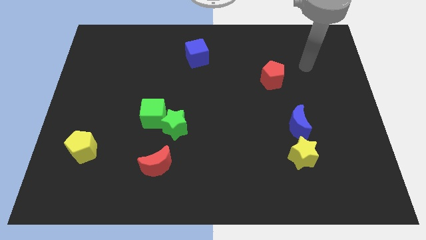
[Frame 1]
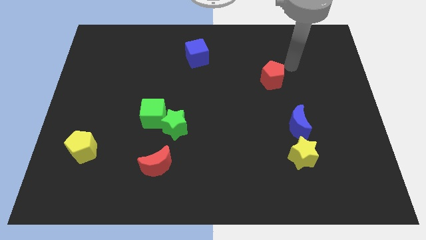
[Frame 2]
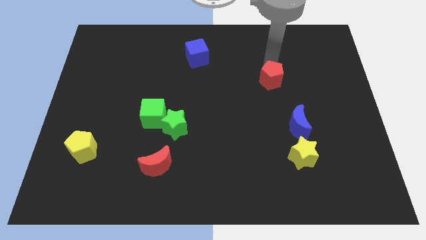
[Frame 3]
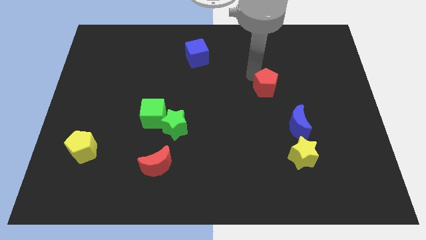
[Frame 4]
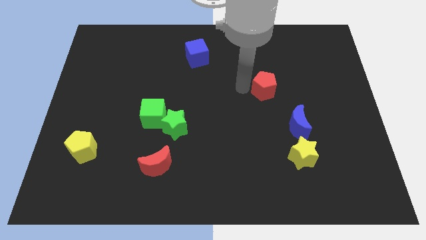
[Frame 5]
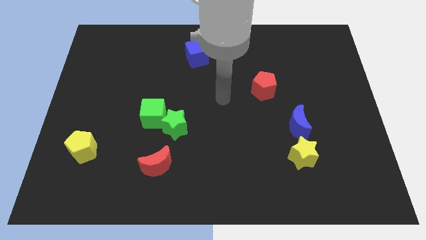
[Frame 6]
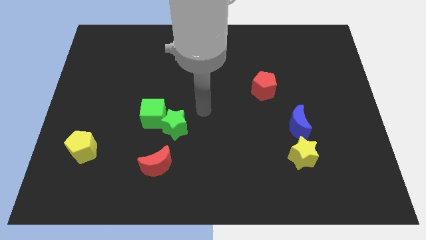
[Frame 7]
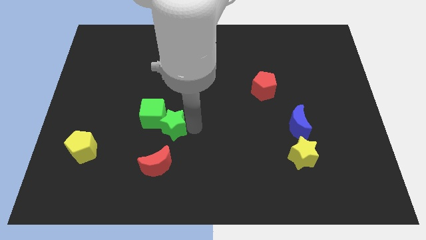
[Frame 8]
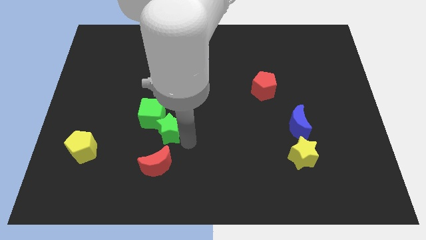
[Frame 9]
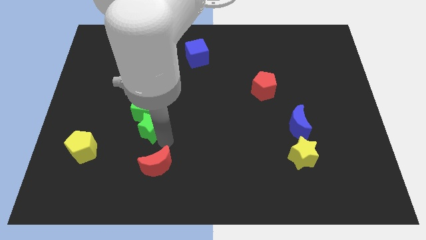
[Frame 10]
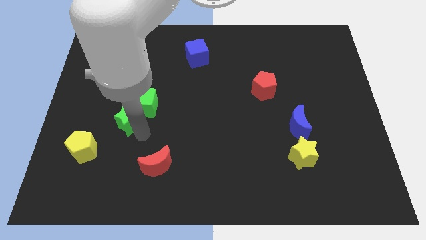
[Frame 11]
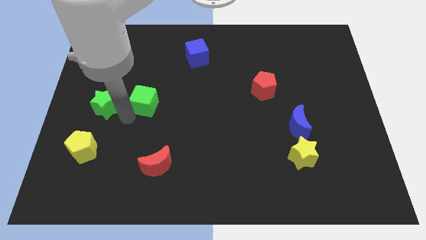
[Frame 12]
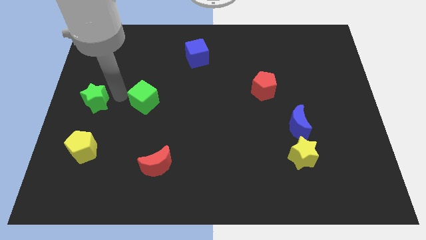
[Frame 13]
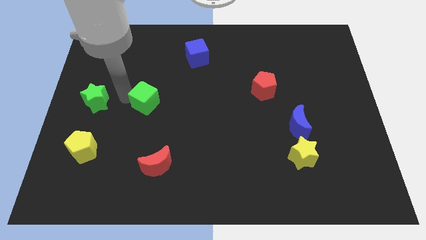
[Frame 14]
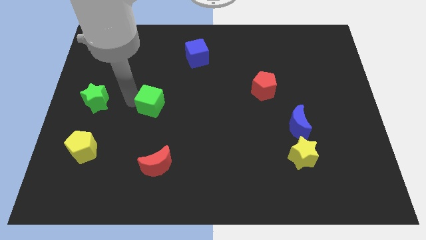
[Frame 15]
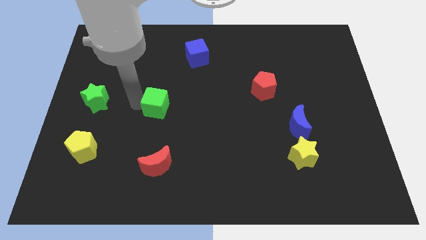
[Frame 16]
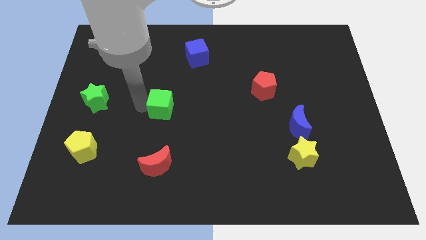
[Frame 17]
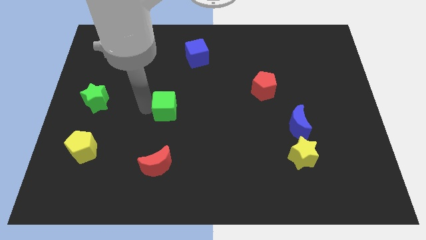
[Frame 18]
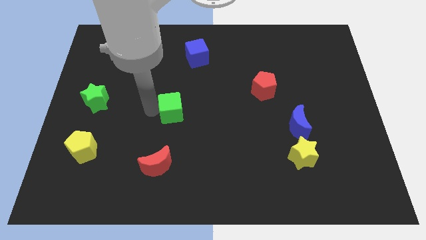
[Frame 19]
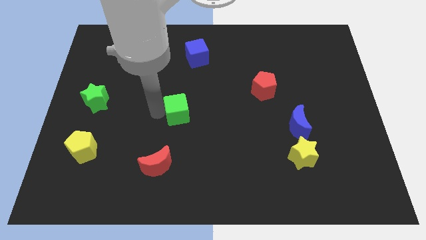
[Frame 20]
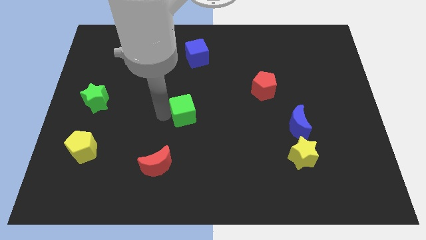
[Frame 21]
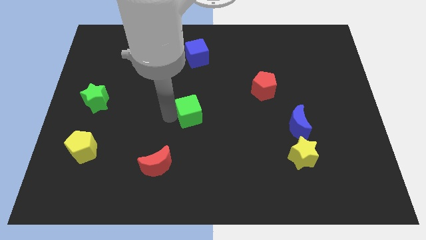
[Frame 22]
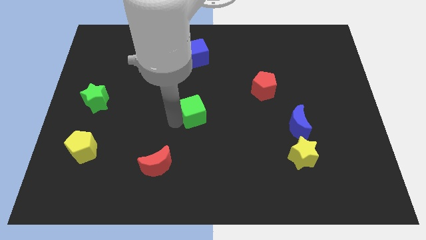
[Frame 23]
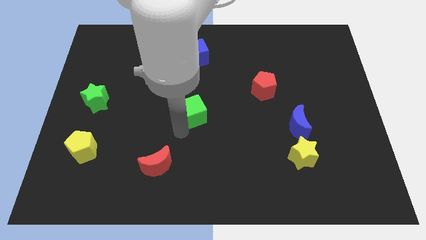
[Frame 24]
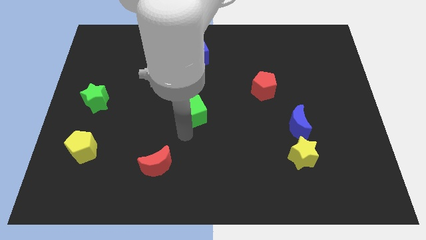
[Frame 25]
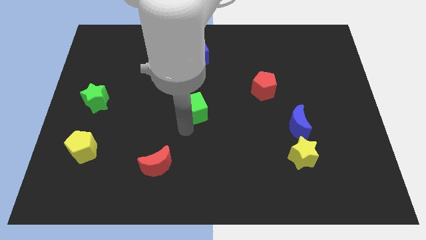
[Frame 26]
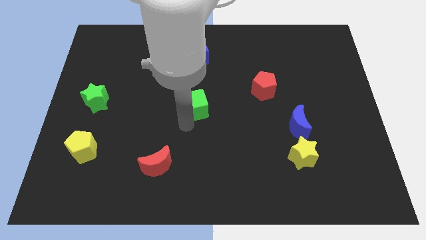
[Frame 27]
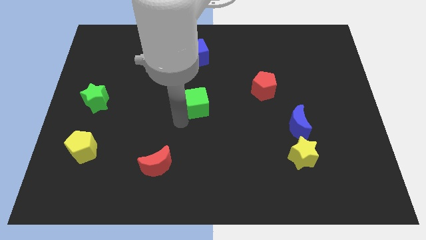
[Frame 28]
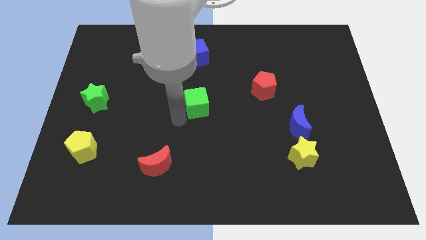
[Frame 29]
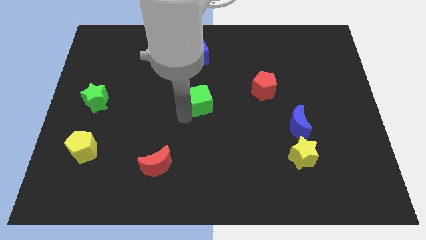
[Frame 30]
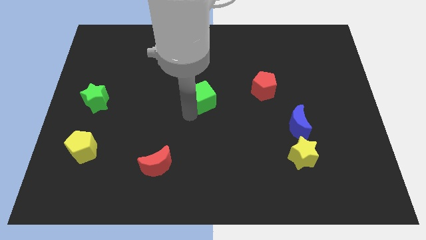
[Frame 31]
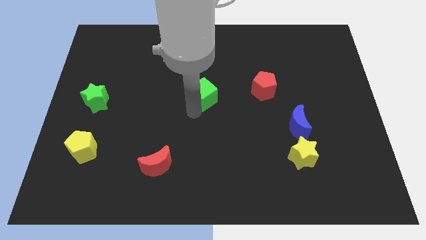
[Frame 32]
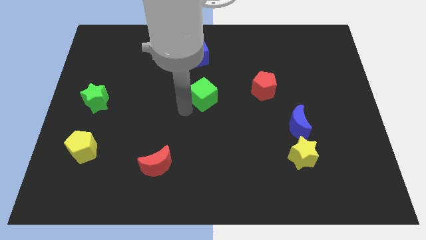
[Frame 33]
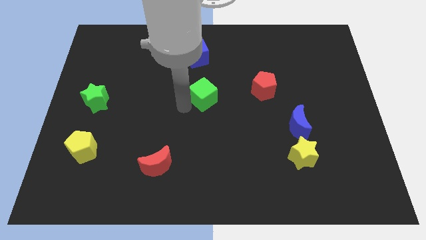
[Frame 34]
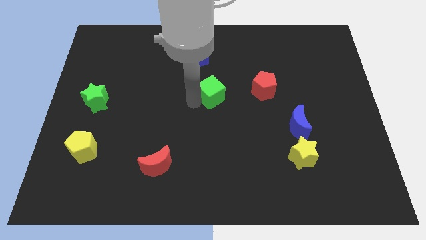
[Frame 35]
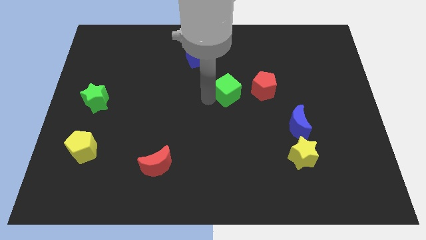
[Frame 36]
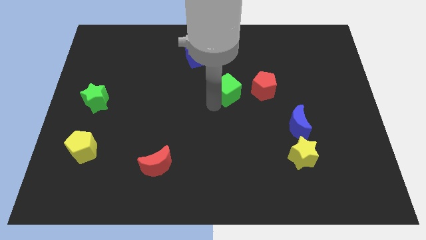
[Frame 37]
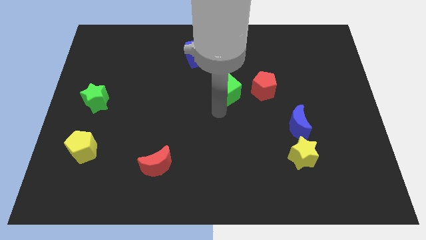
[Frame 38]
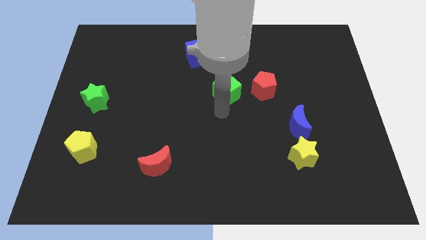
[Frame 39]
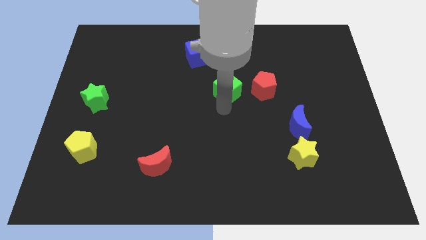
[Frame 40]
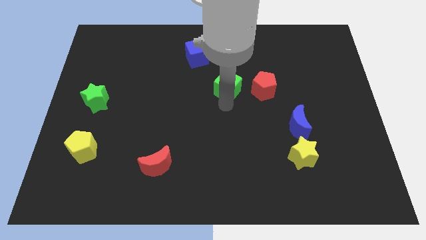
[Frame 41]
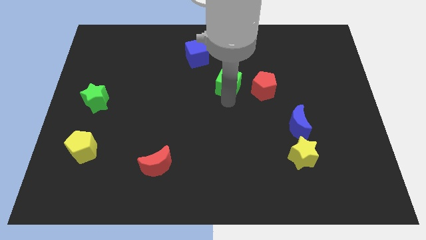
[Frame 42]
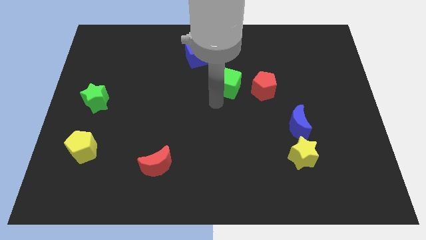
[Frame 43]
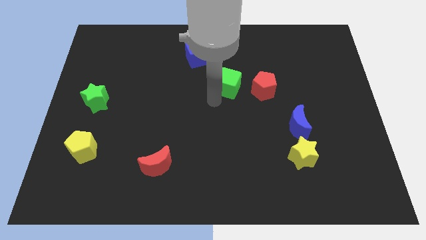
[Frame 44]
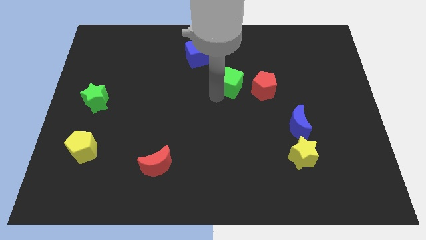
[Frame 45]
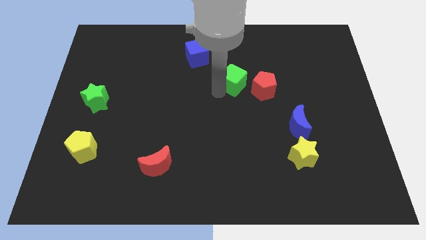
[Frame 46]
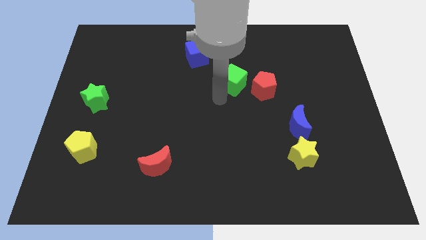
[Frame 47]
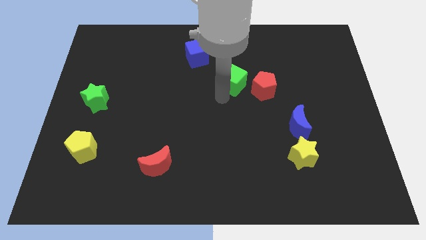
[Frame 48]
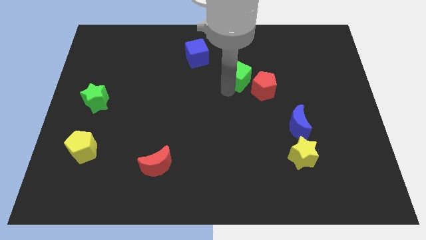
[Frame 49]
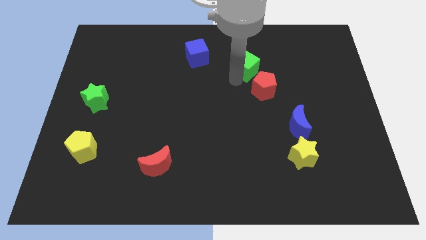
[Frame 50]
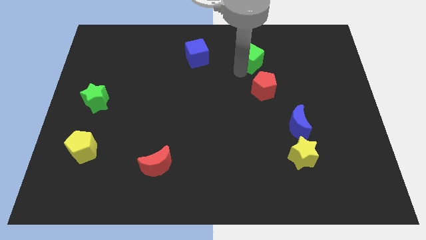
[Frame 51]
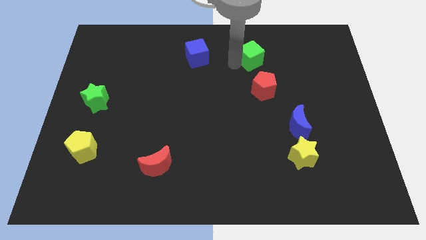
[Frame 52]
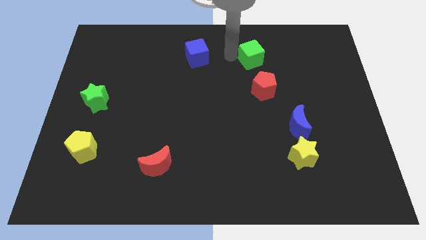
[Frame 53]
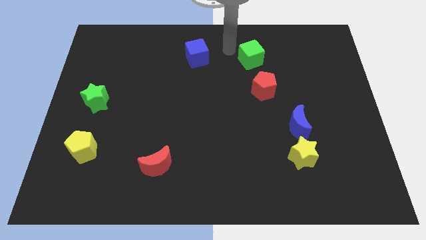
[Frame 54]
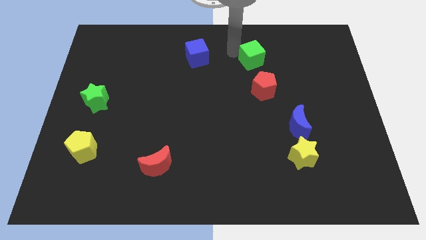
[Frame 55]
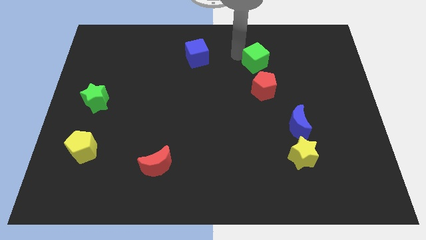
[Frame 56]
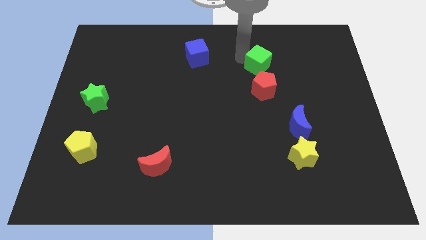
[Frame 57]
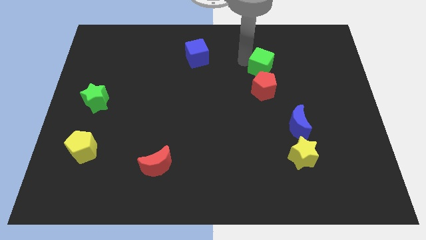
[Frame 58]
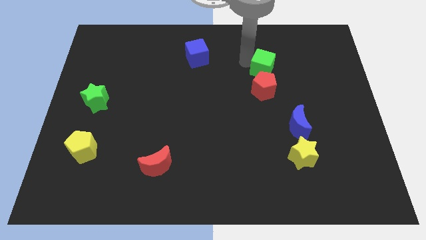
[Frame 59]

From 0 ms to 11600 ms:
slide the green cube to the top right side of the red pentagon

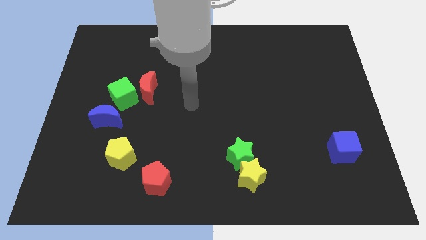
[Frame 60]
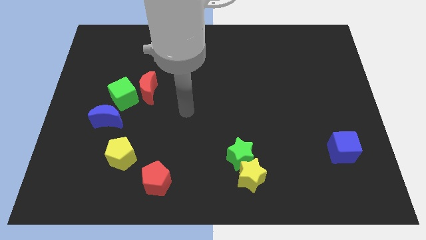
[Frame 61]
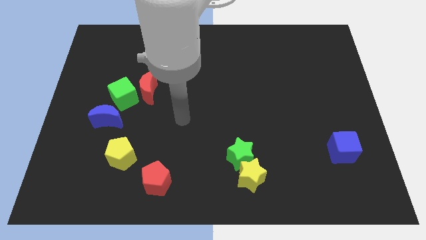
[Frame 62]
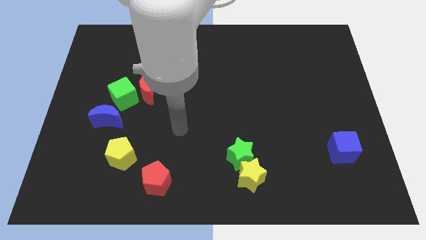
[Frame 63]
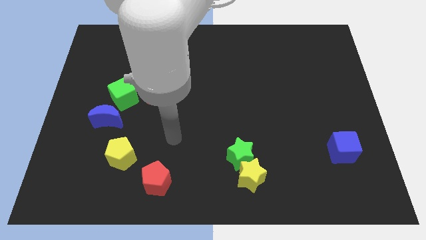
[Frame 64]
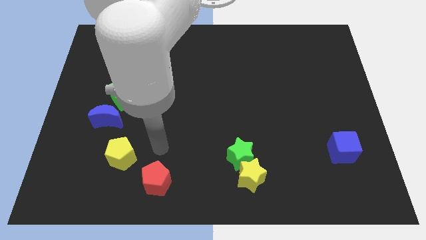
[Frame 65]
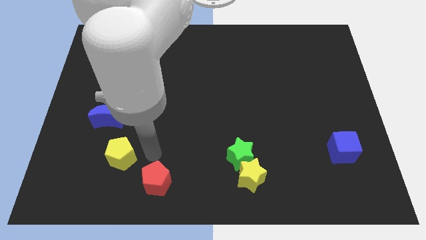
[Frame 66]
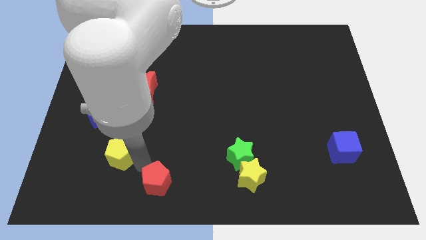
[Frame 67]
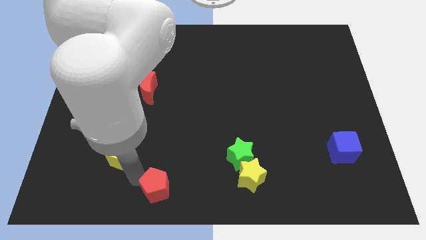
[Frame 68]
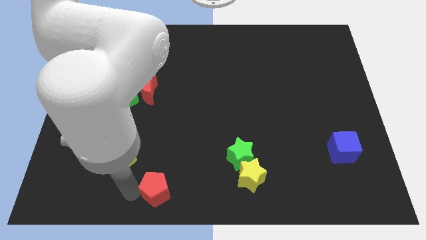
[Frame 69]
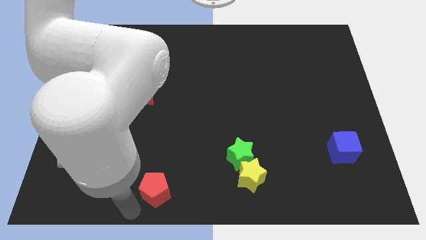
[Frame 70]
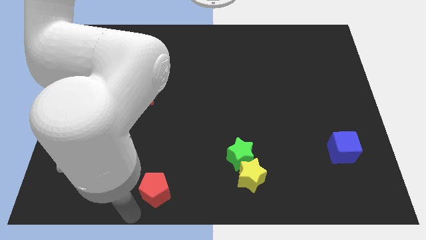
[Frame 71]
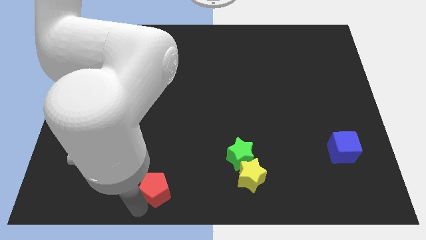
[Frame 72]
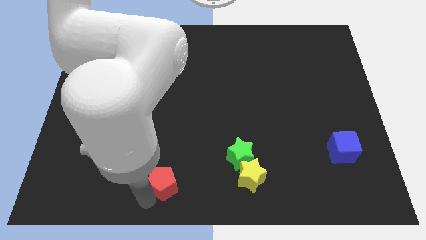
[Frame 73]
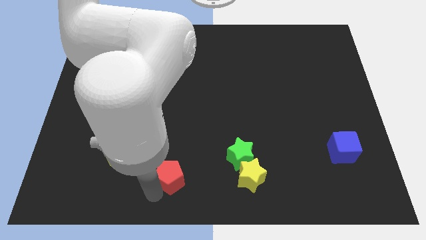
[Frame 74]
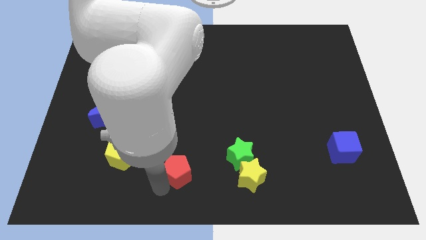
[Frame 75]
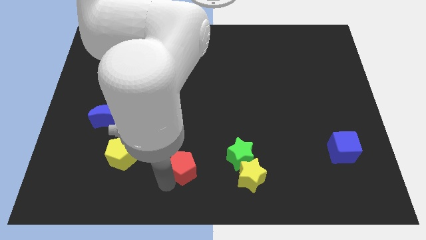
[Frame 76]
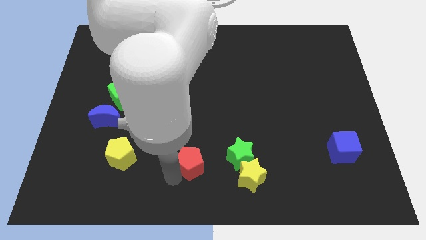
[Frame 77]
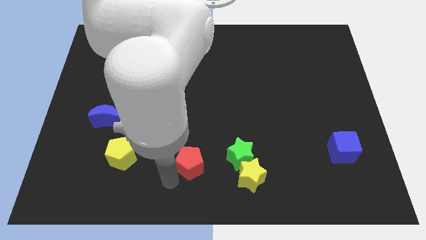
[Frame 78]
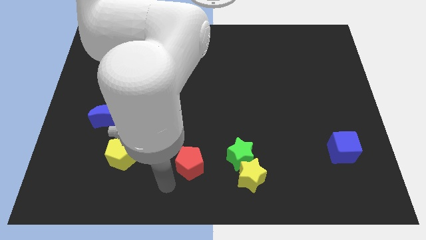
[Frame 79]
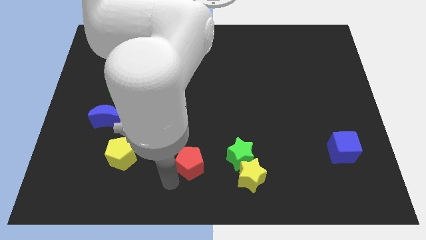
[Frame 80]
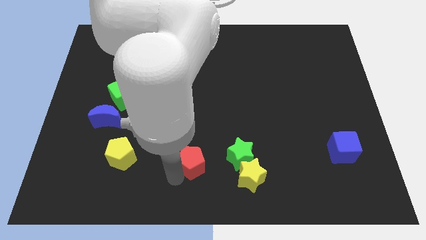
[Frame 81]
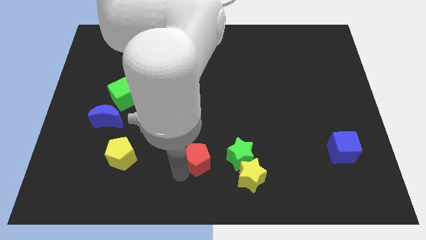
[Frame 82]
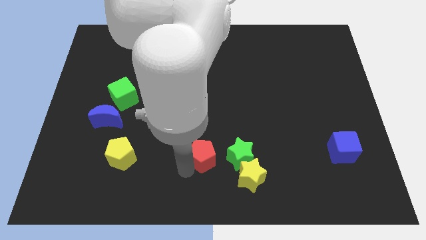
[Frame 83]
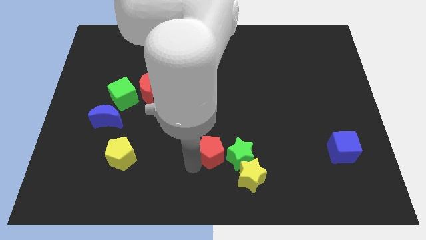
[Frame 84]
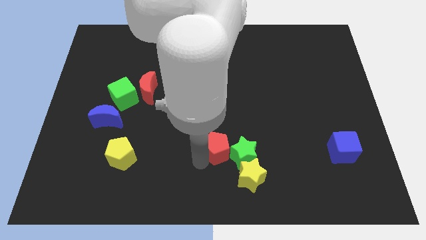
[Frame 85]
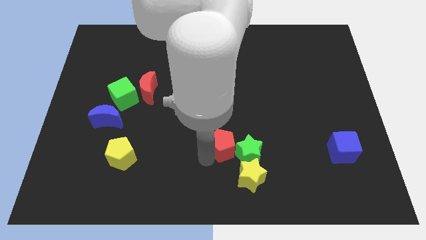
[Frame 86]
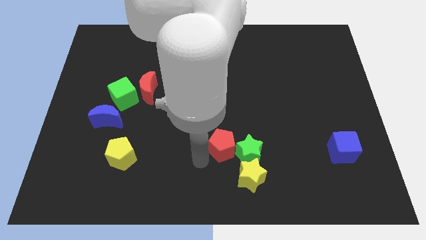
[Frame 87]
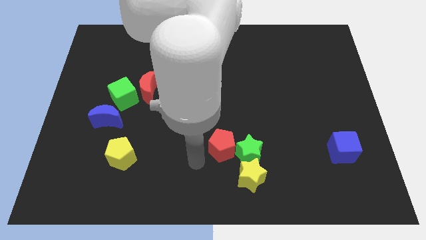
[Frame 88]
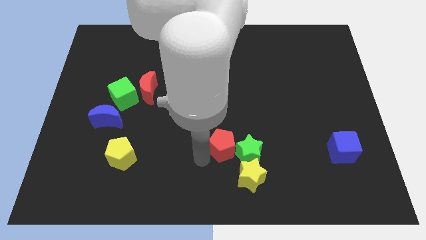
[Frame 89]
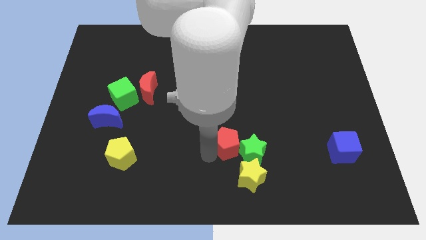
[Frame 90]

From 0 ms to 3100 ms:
put the red pentagon to the top of the yellow star
